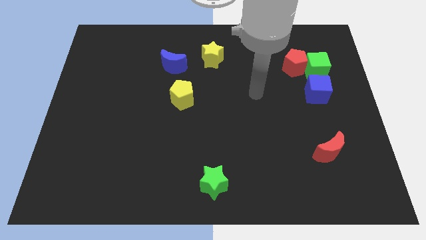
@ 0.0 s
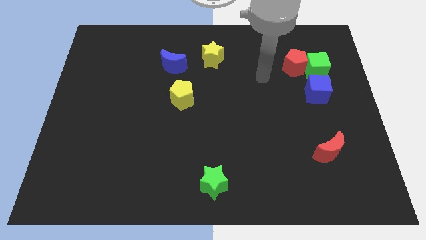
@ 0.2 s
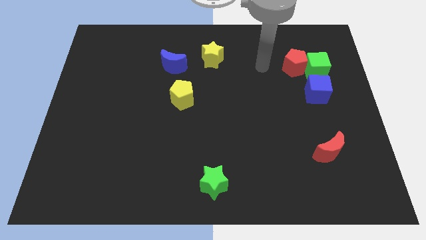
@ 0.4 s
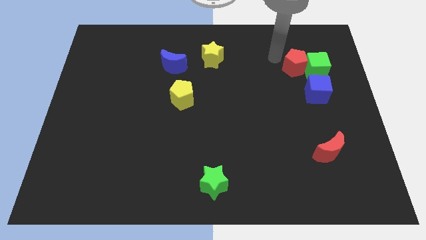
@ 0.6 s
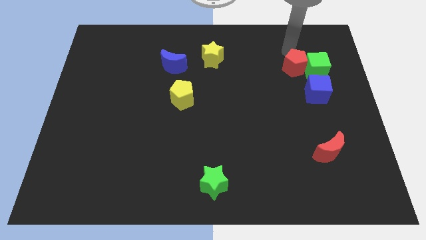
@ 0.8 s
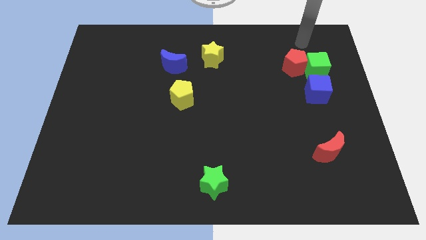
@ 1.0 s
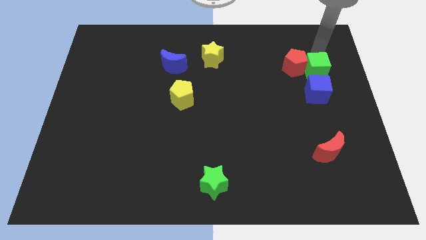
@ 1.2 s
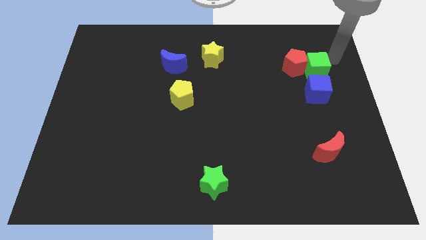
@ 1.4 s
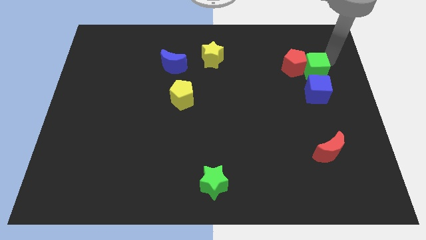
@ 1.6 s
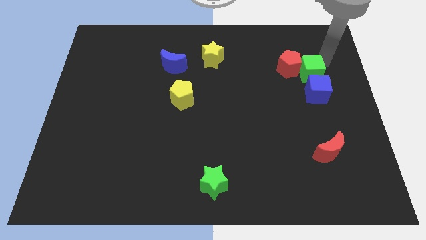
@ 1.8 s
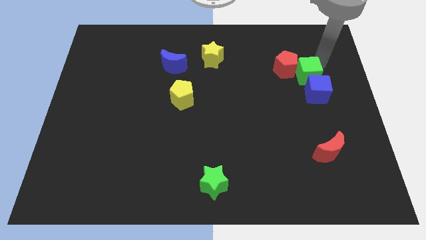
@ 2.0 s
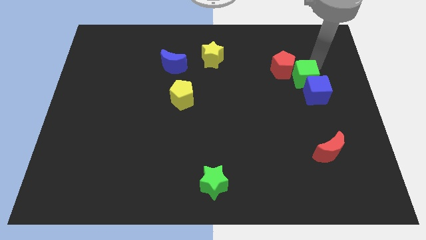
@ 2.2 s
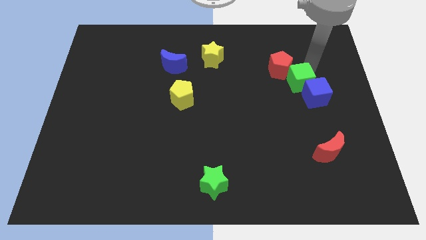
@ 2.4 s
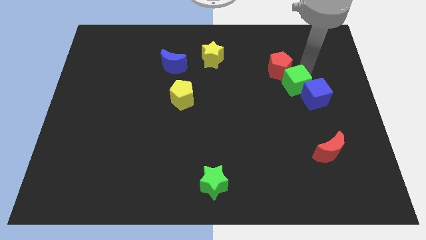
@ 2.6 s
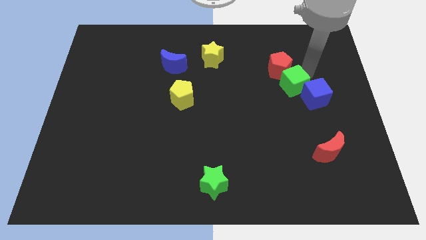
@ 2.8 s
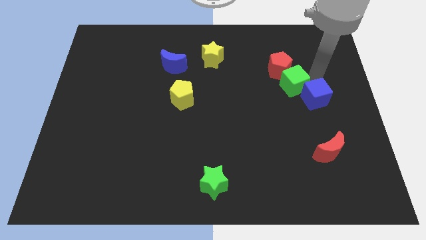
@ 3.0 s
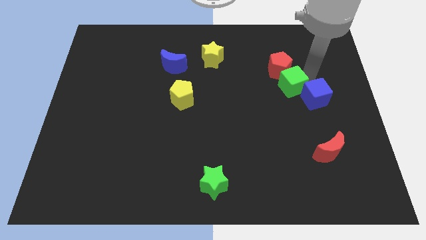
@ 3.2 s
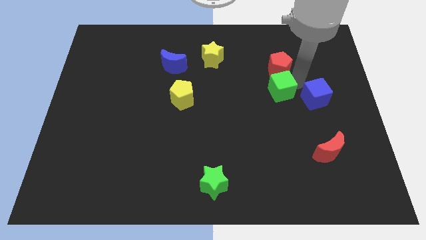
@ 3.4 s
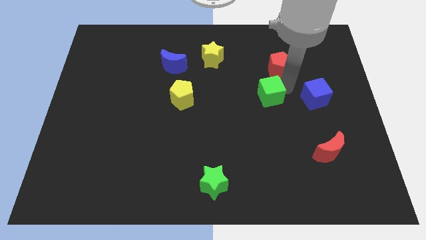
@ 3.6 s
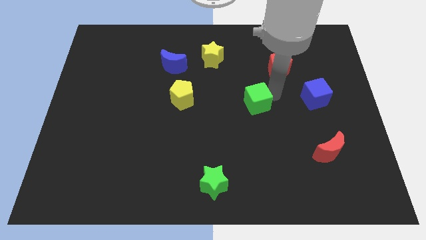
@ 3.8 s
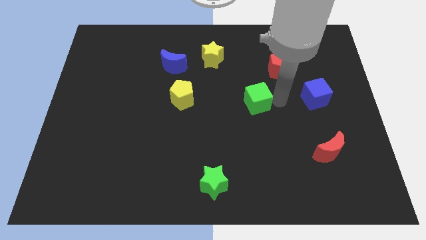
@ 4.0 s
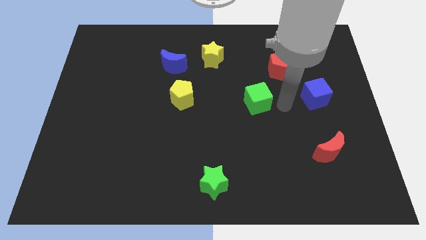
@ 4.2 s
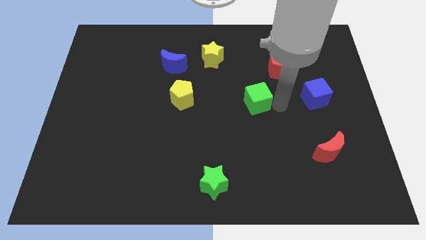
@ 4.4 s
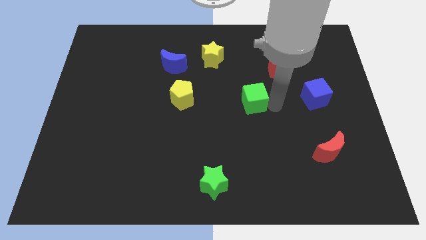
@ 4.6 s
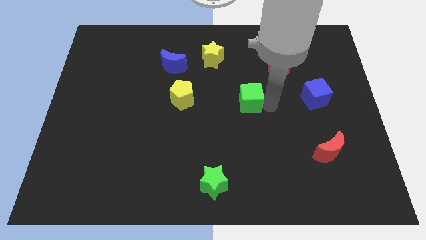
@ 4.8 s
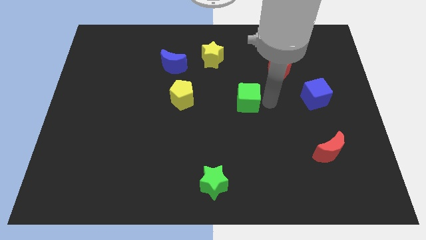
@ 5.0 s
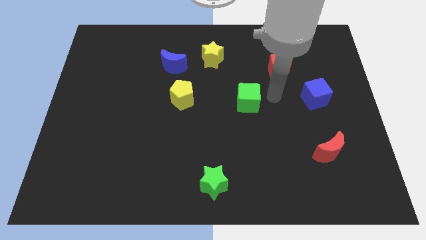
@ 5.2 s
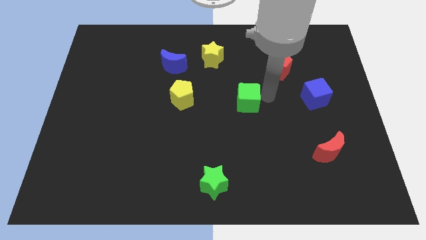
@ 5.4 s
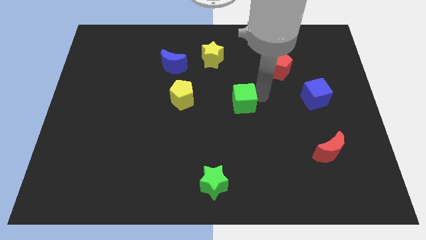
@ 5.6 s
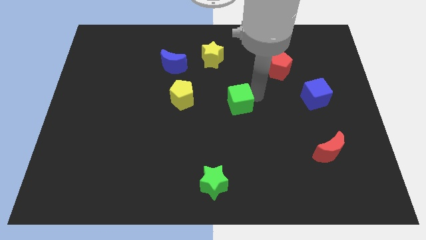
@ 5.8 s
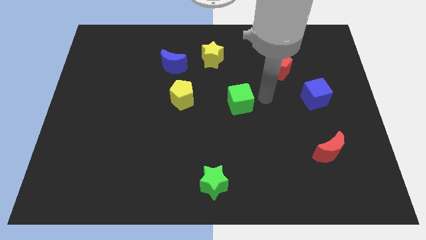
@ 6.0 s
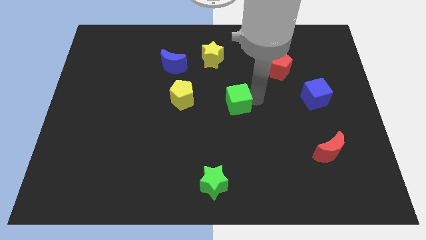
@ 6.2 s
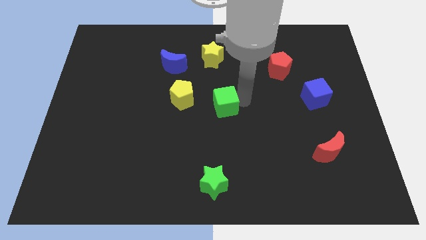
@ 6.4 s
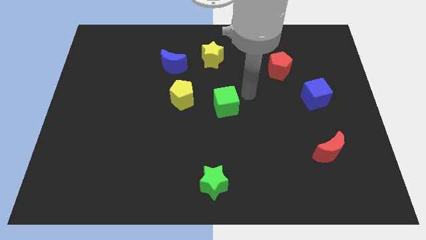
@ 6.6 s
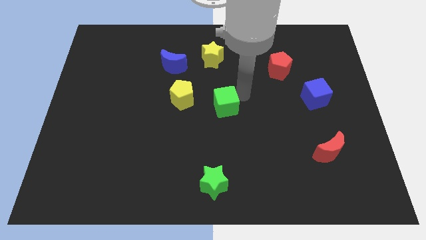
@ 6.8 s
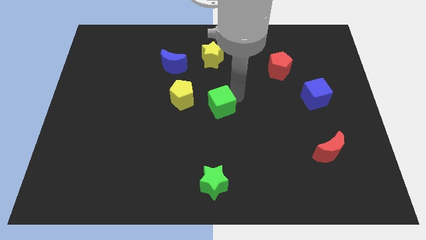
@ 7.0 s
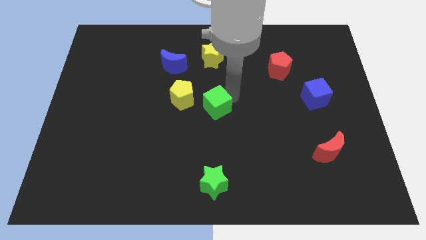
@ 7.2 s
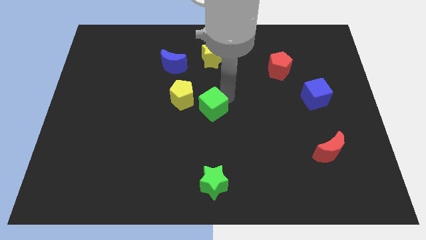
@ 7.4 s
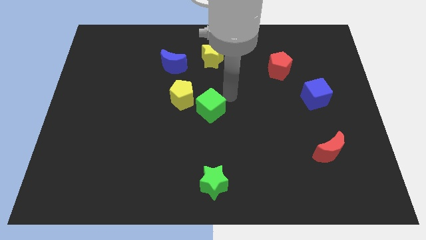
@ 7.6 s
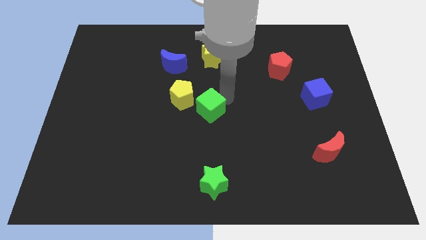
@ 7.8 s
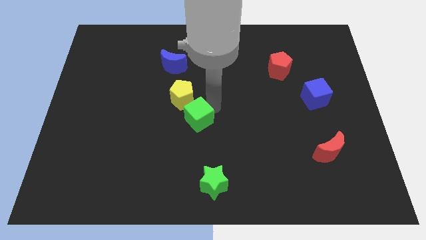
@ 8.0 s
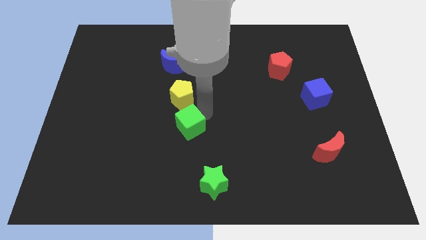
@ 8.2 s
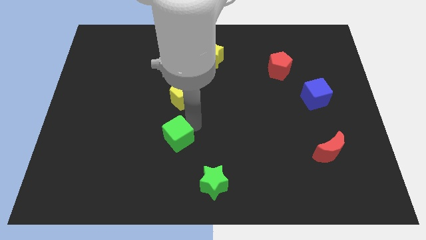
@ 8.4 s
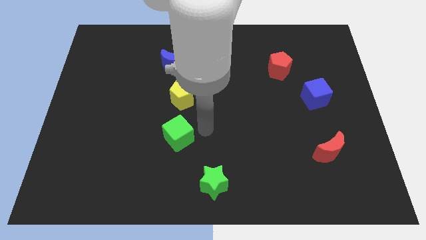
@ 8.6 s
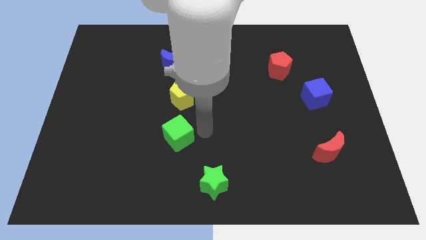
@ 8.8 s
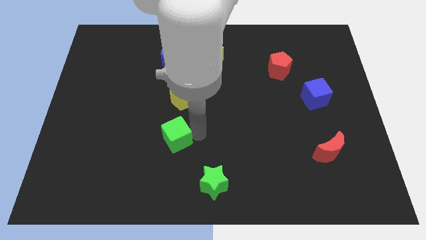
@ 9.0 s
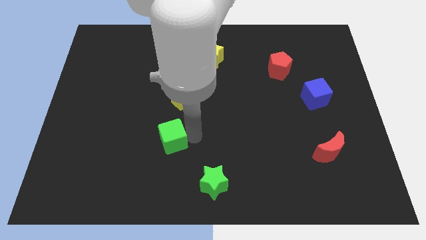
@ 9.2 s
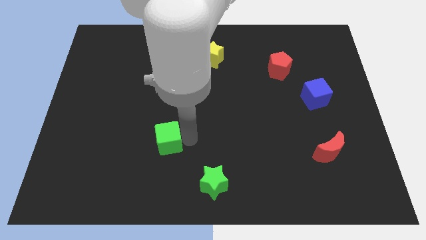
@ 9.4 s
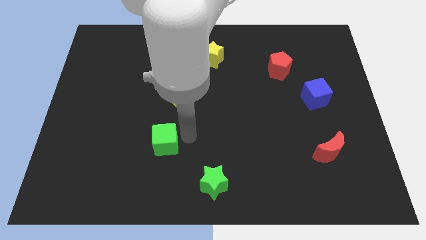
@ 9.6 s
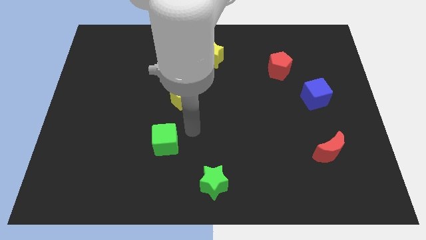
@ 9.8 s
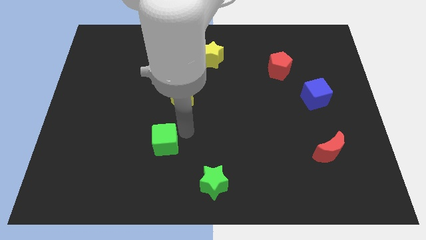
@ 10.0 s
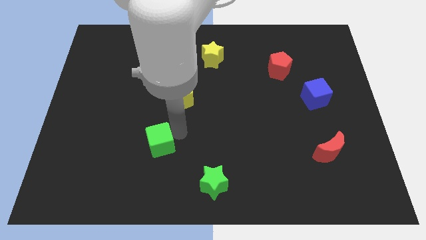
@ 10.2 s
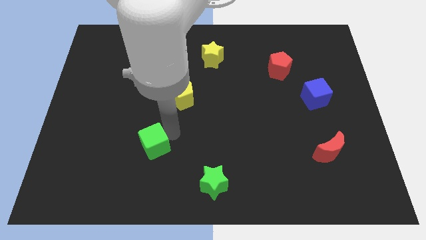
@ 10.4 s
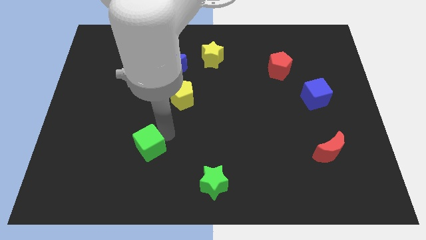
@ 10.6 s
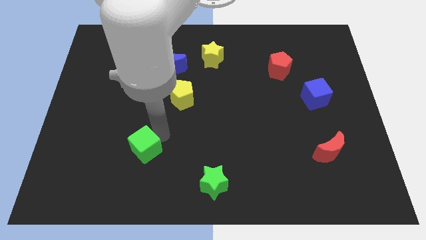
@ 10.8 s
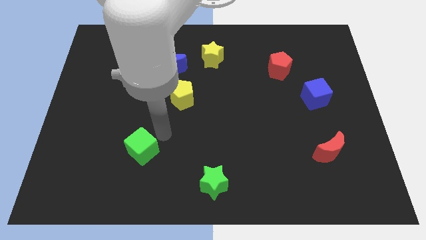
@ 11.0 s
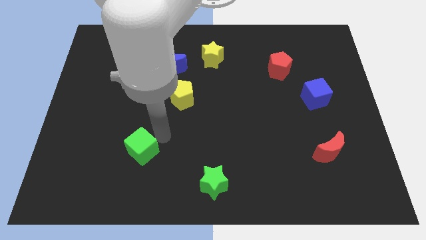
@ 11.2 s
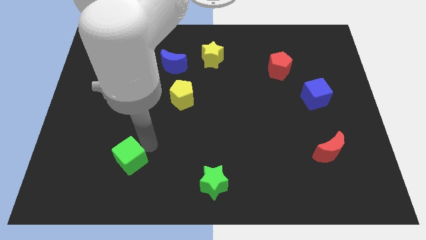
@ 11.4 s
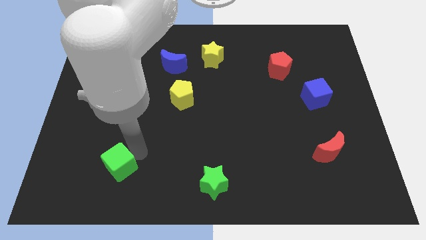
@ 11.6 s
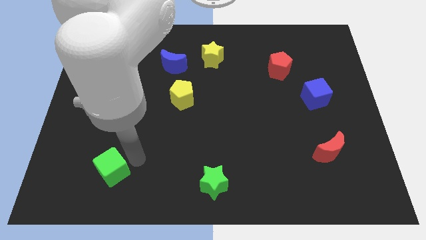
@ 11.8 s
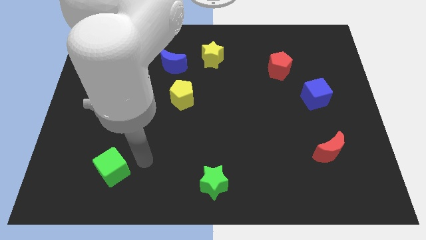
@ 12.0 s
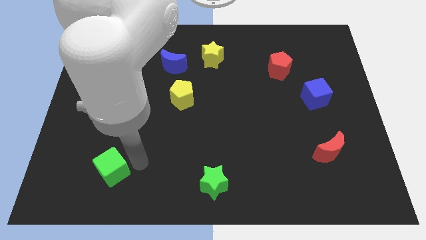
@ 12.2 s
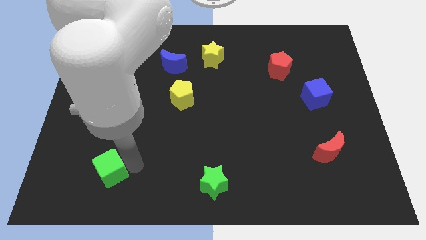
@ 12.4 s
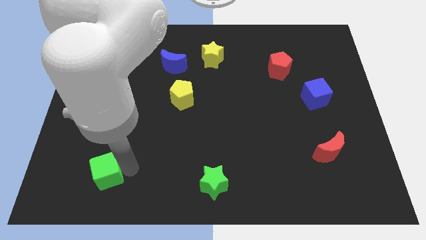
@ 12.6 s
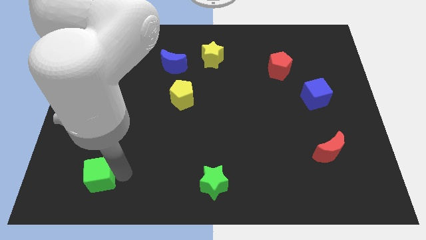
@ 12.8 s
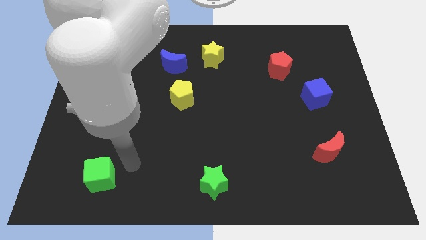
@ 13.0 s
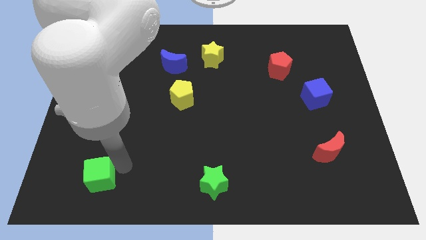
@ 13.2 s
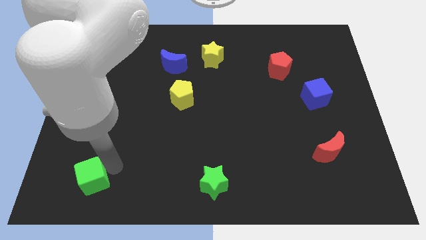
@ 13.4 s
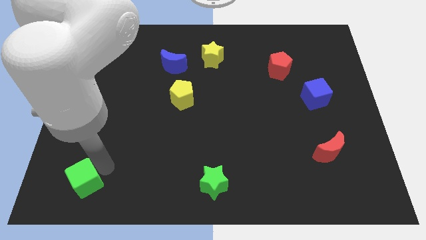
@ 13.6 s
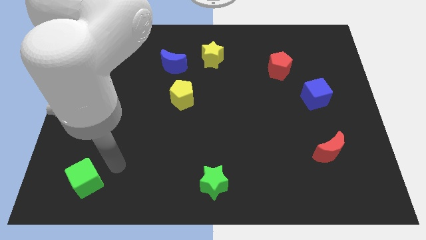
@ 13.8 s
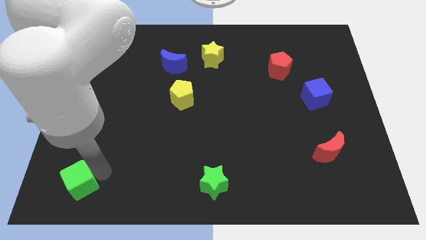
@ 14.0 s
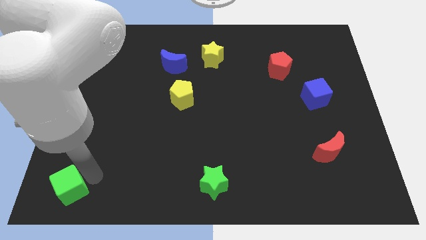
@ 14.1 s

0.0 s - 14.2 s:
push the green cube to the bottom left
